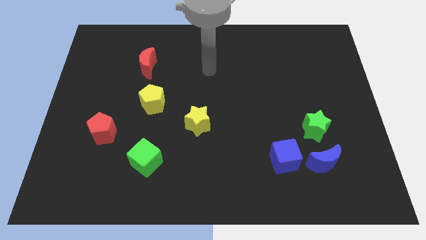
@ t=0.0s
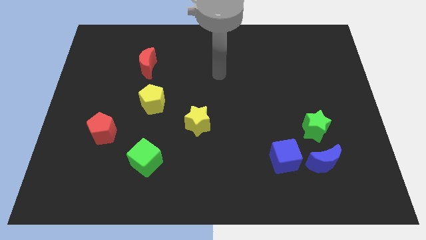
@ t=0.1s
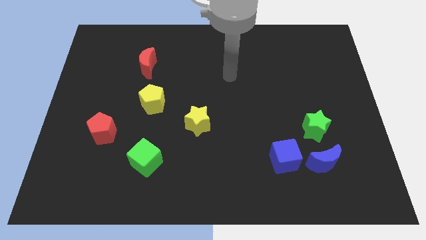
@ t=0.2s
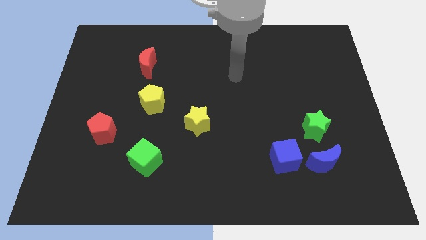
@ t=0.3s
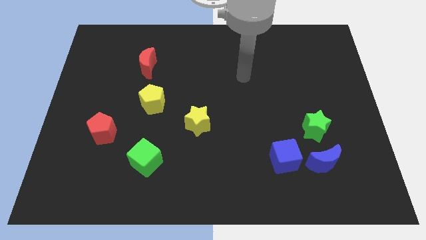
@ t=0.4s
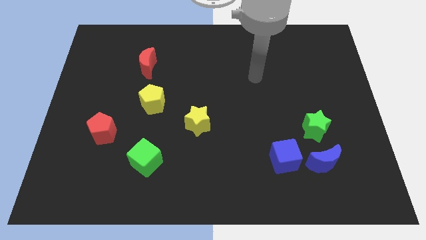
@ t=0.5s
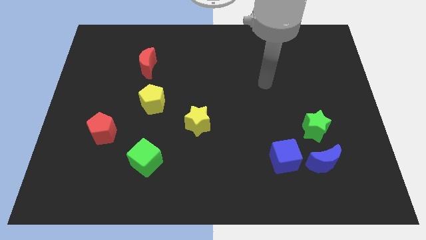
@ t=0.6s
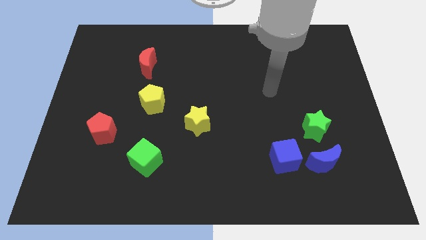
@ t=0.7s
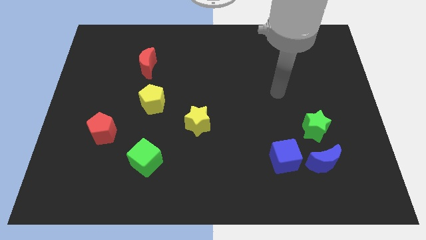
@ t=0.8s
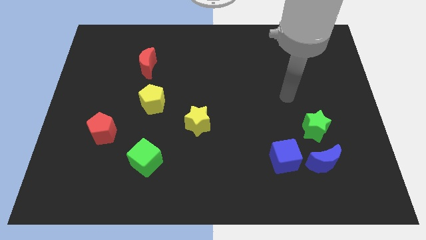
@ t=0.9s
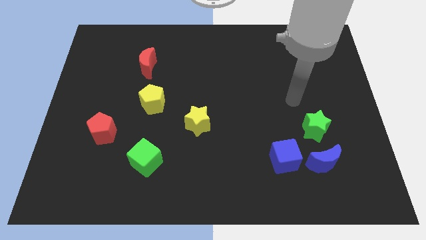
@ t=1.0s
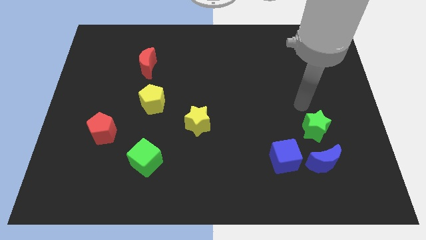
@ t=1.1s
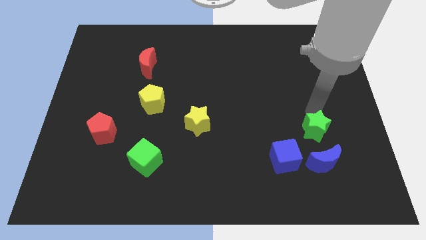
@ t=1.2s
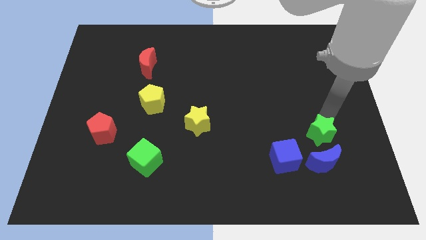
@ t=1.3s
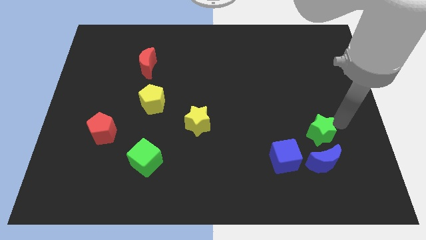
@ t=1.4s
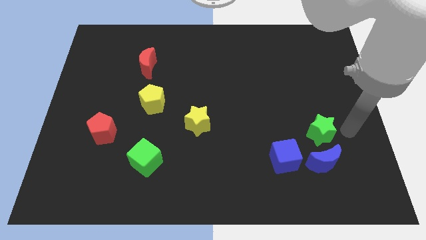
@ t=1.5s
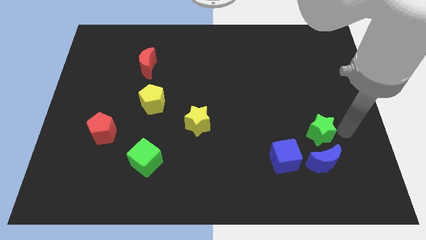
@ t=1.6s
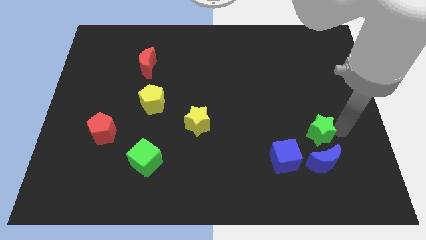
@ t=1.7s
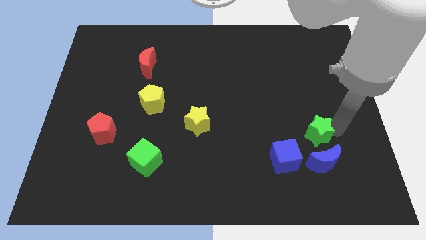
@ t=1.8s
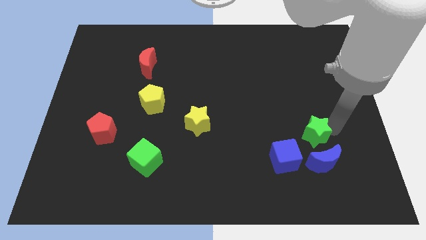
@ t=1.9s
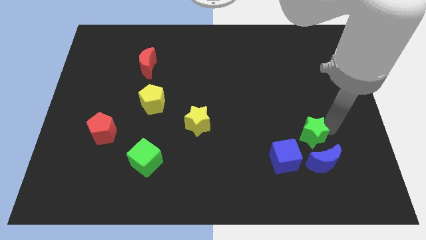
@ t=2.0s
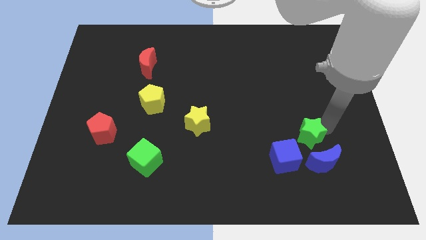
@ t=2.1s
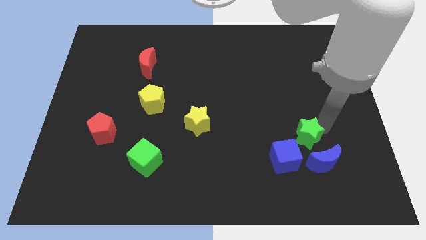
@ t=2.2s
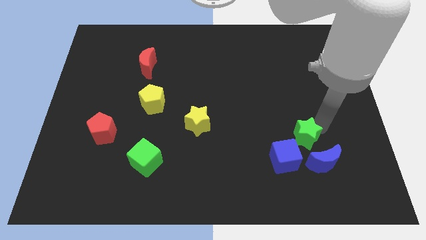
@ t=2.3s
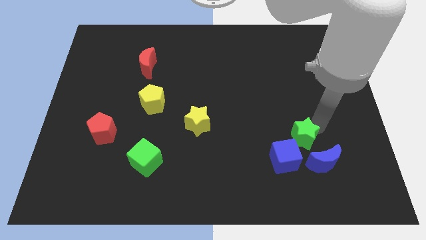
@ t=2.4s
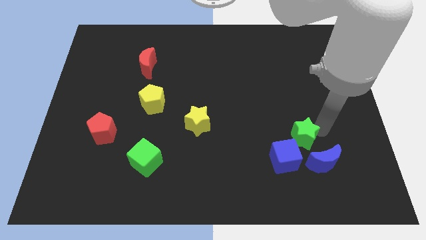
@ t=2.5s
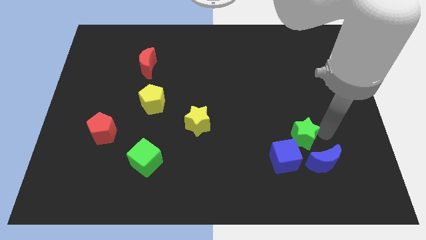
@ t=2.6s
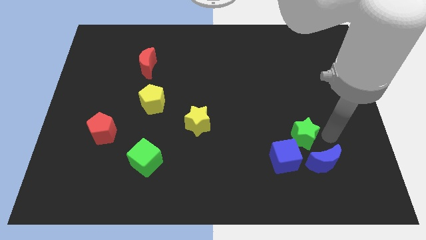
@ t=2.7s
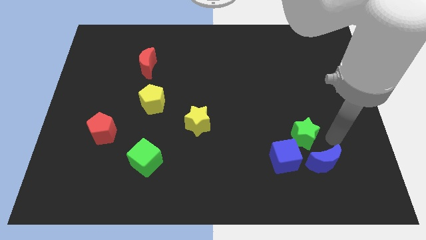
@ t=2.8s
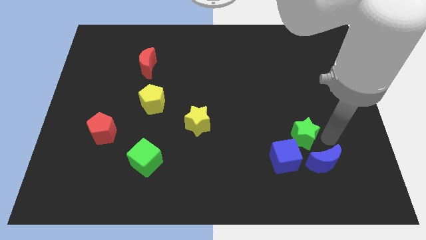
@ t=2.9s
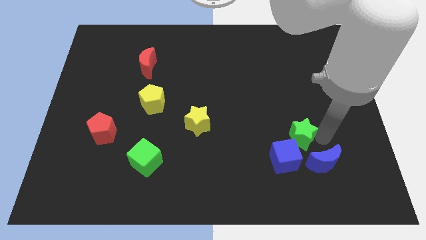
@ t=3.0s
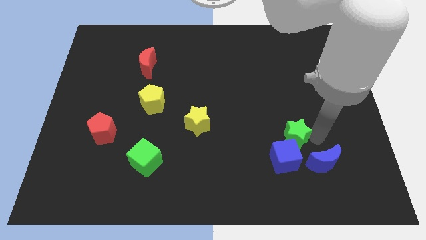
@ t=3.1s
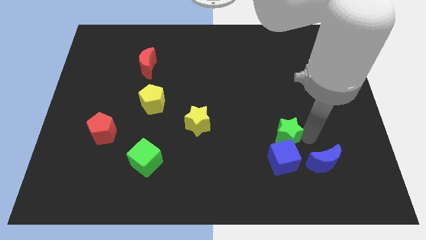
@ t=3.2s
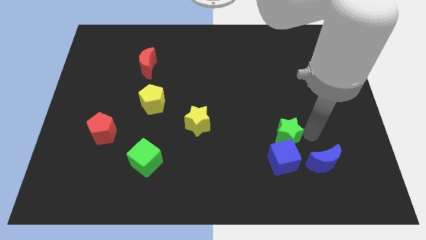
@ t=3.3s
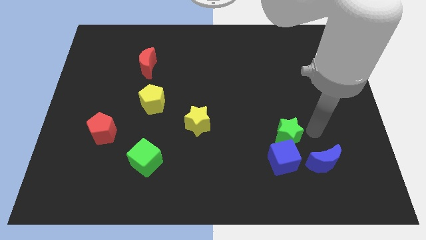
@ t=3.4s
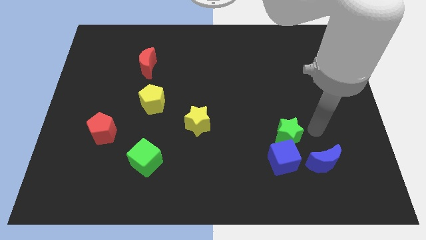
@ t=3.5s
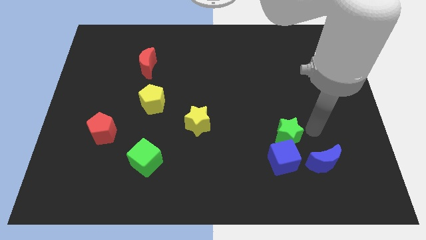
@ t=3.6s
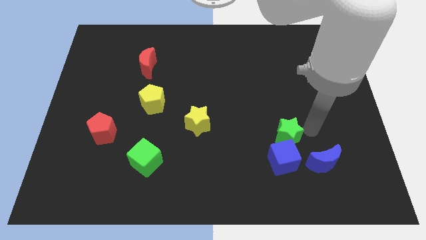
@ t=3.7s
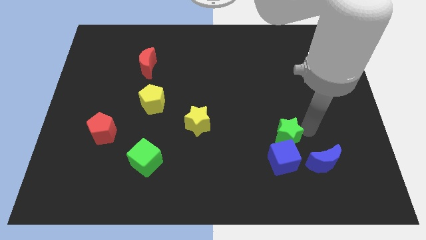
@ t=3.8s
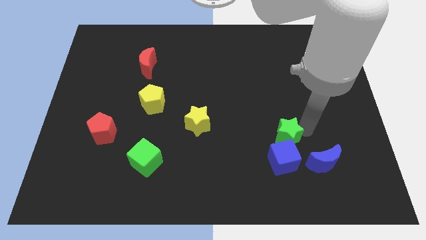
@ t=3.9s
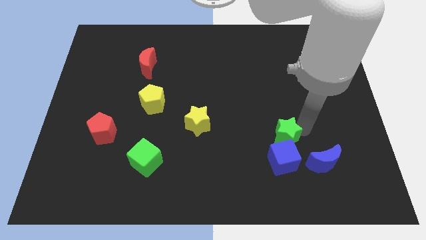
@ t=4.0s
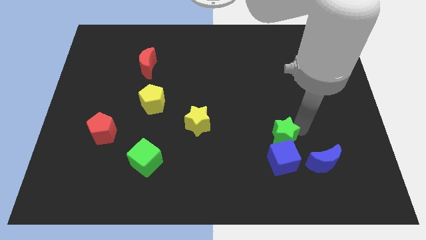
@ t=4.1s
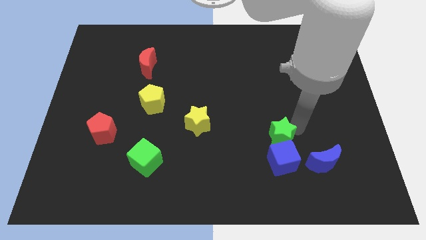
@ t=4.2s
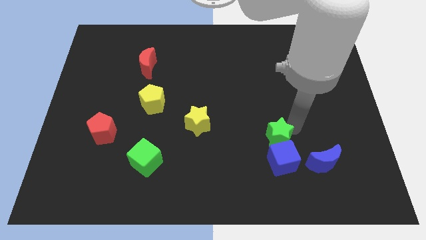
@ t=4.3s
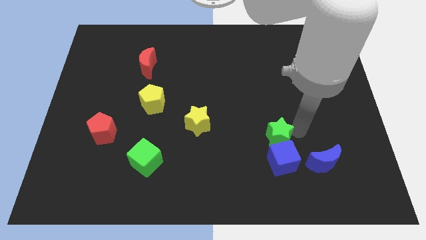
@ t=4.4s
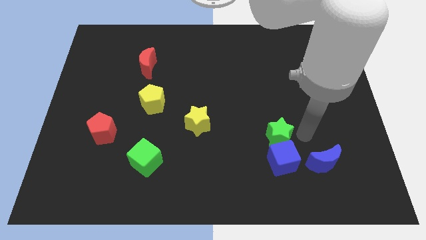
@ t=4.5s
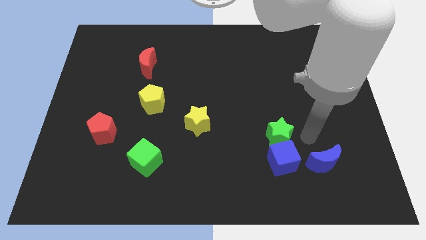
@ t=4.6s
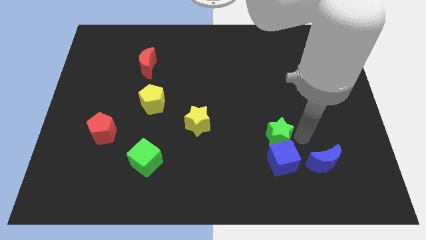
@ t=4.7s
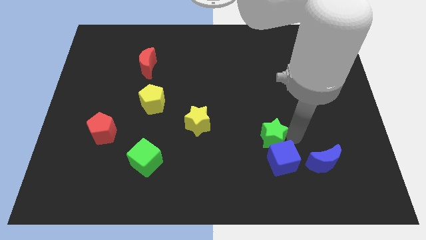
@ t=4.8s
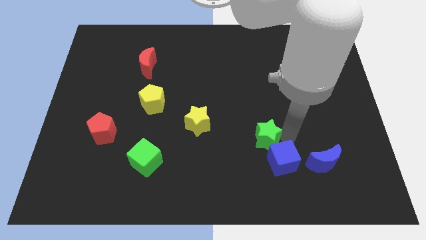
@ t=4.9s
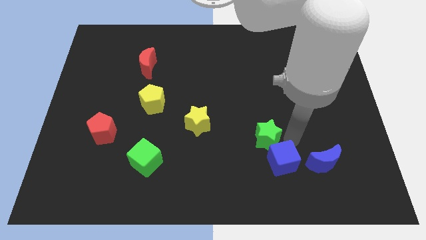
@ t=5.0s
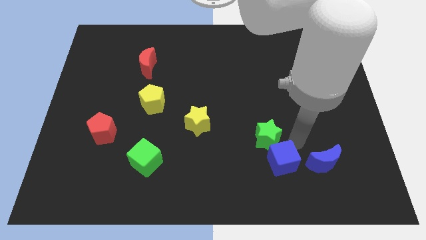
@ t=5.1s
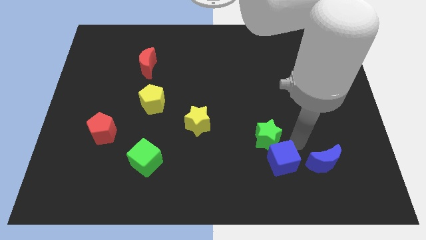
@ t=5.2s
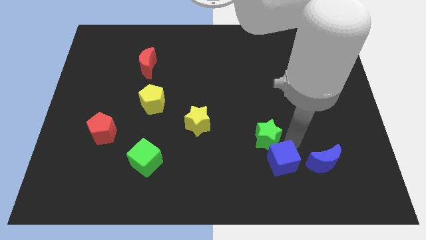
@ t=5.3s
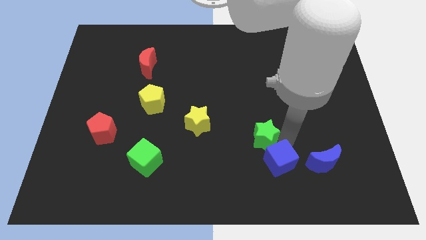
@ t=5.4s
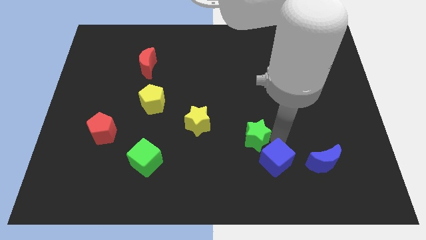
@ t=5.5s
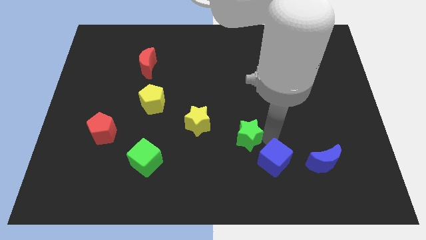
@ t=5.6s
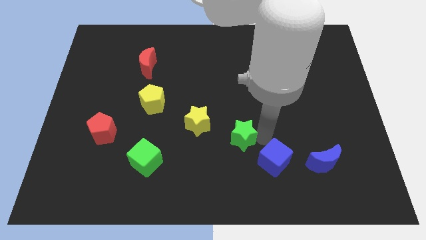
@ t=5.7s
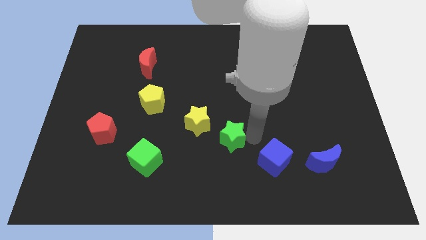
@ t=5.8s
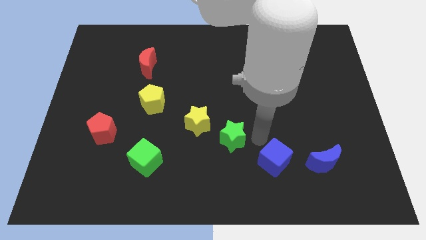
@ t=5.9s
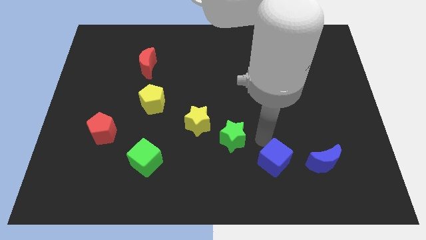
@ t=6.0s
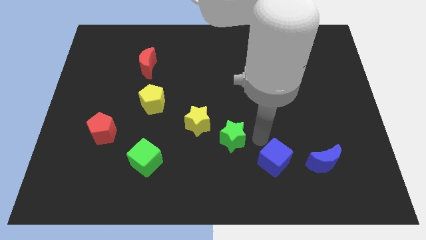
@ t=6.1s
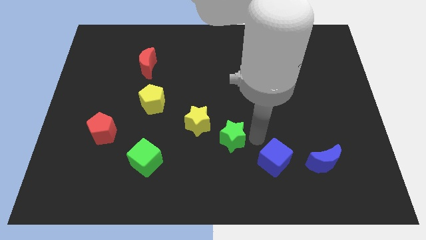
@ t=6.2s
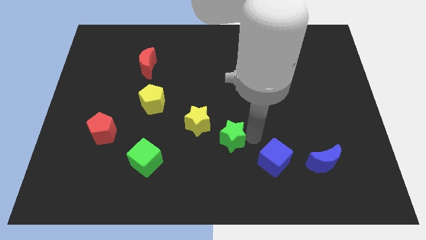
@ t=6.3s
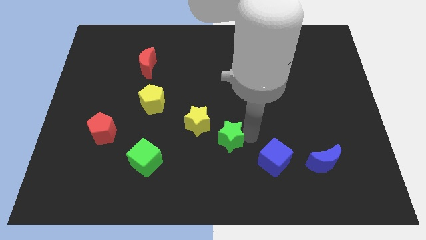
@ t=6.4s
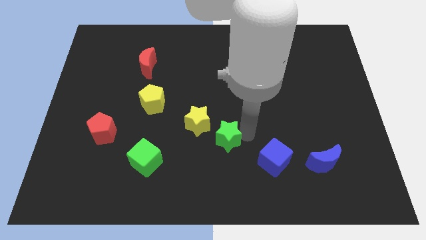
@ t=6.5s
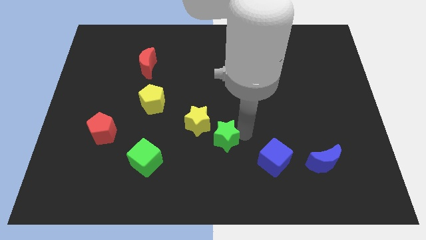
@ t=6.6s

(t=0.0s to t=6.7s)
slide the green star left

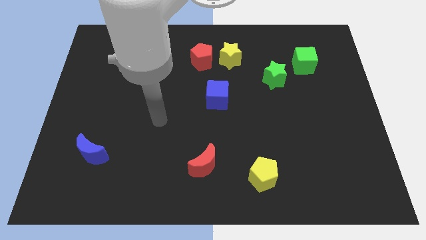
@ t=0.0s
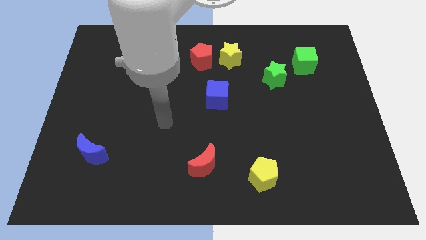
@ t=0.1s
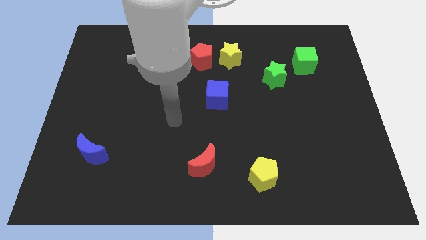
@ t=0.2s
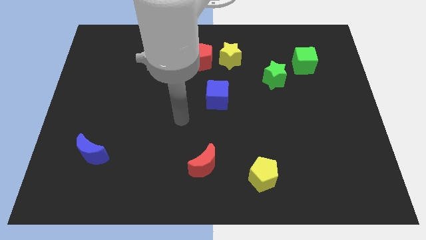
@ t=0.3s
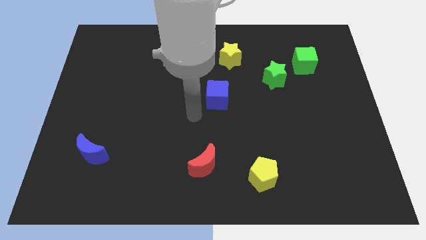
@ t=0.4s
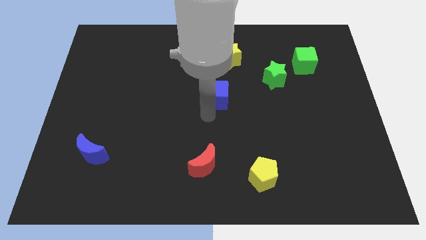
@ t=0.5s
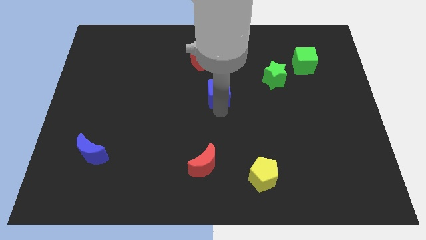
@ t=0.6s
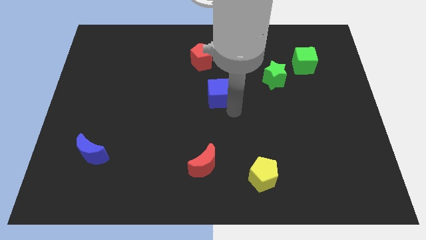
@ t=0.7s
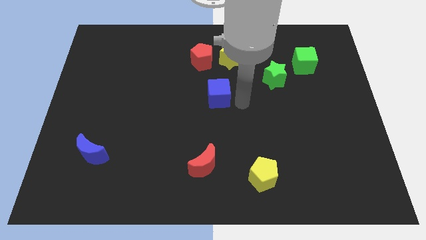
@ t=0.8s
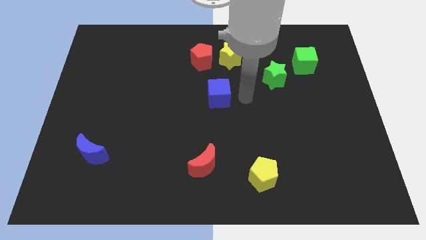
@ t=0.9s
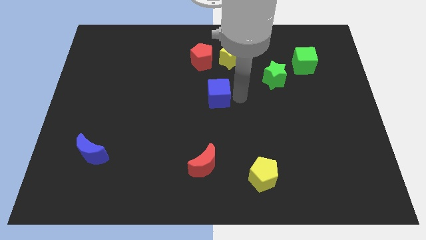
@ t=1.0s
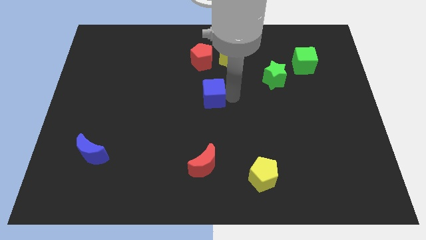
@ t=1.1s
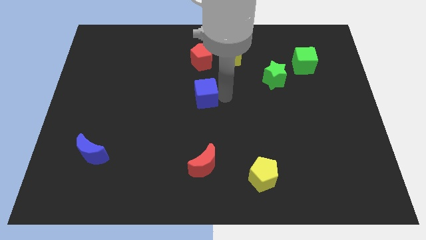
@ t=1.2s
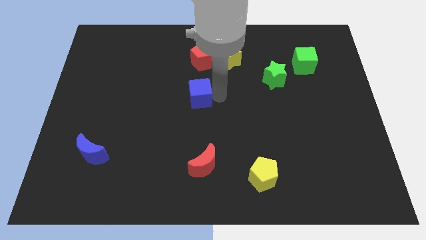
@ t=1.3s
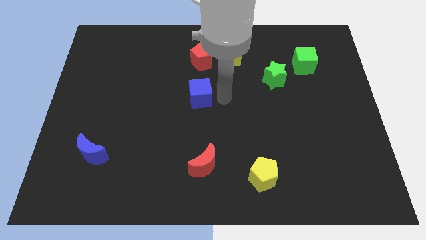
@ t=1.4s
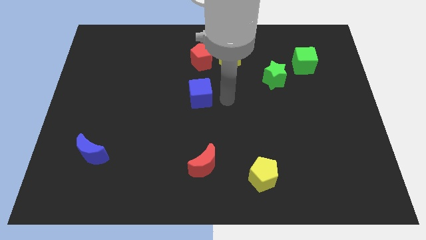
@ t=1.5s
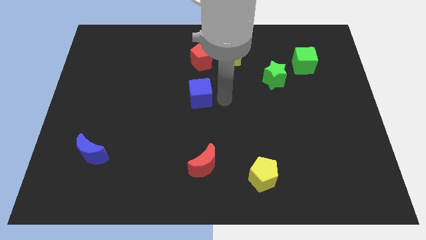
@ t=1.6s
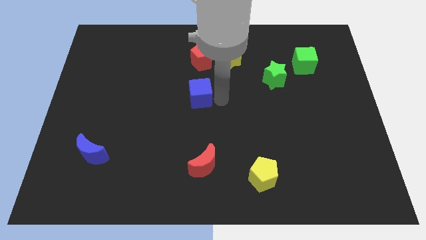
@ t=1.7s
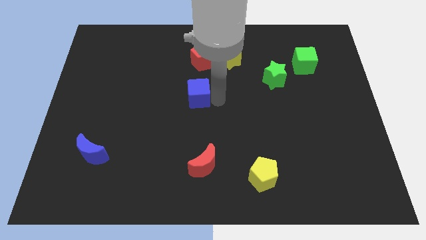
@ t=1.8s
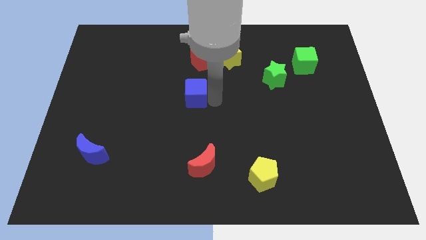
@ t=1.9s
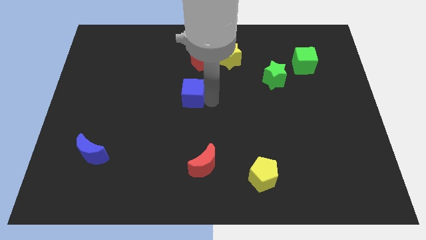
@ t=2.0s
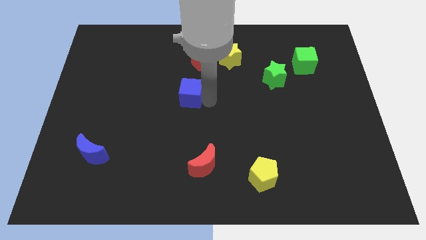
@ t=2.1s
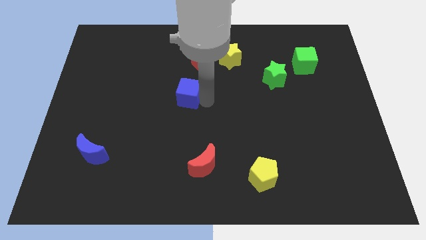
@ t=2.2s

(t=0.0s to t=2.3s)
slide the blue cube a little to the left
